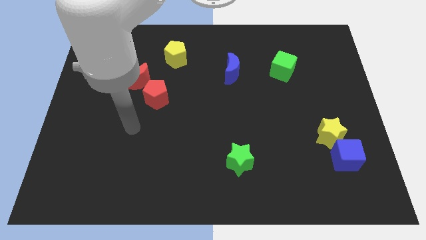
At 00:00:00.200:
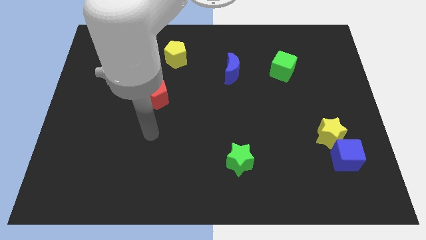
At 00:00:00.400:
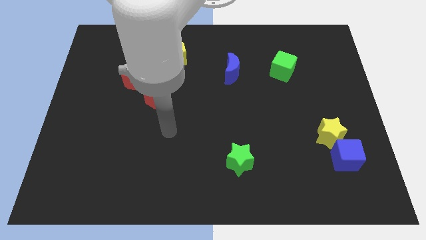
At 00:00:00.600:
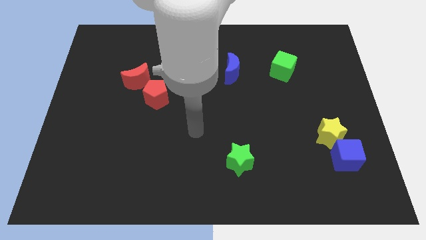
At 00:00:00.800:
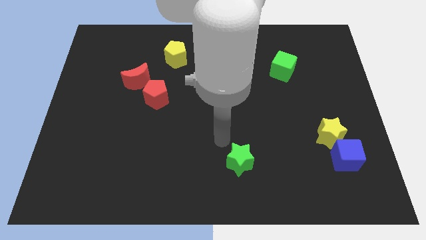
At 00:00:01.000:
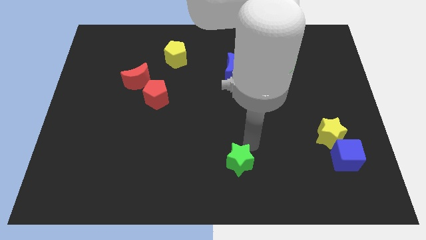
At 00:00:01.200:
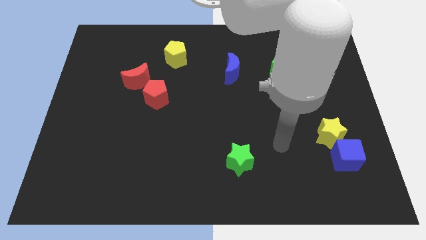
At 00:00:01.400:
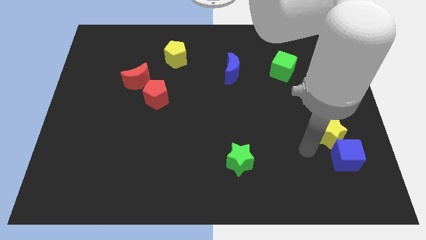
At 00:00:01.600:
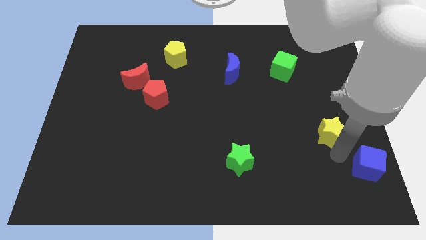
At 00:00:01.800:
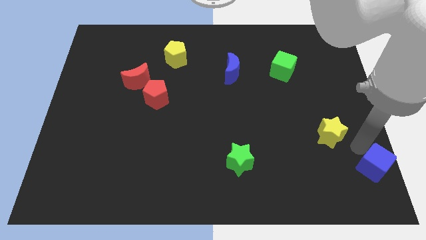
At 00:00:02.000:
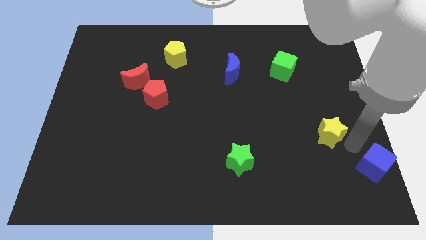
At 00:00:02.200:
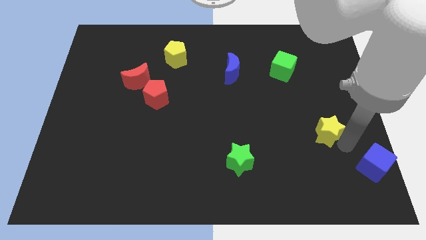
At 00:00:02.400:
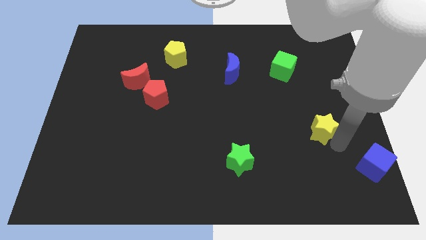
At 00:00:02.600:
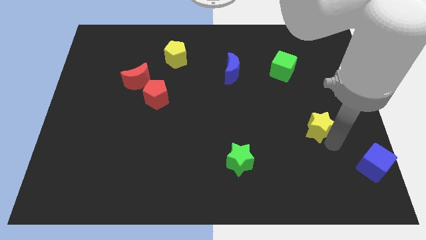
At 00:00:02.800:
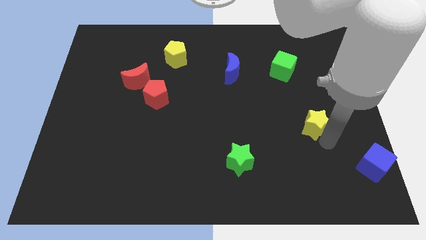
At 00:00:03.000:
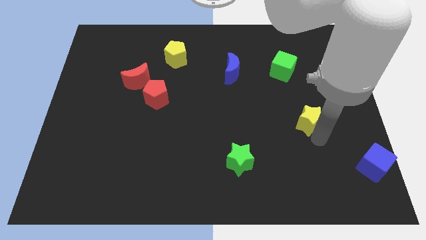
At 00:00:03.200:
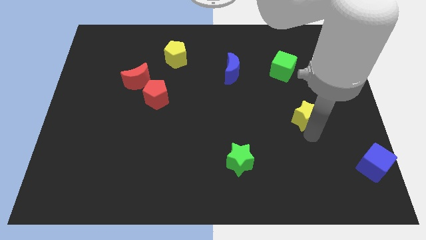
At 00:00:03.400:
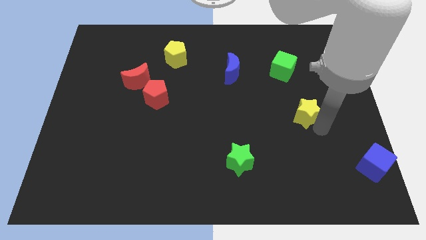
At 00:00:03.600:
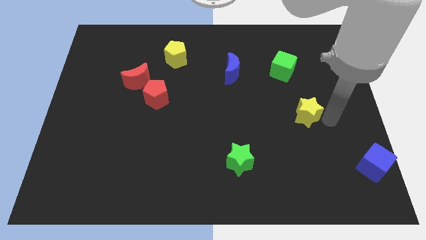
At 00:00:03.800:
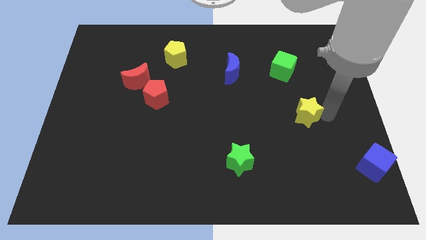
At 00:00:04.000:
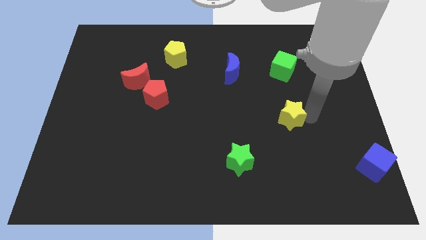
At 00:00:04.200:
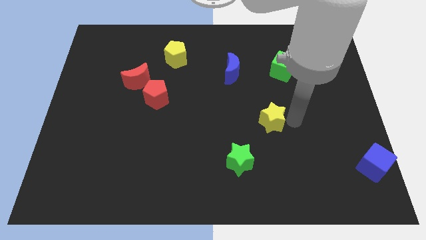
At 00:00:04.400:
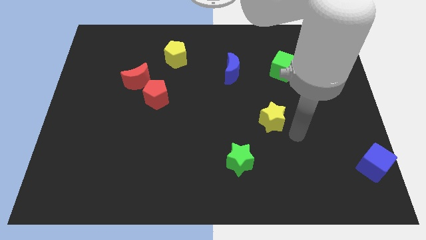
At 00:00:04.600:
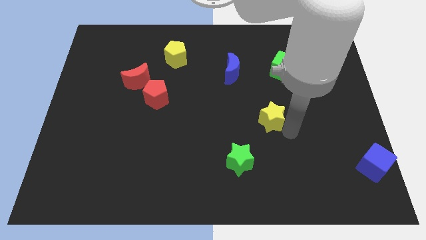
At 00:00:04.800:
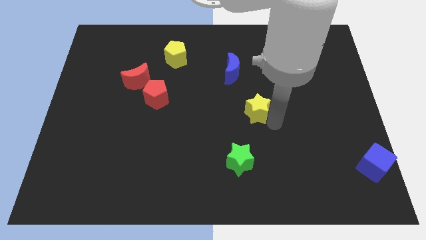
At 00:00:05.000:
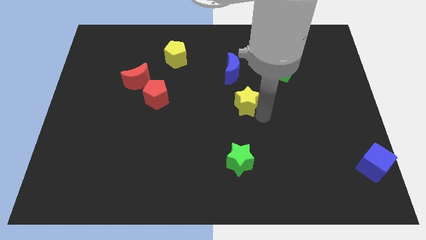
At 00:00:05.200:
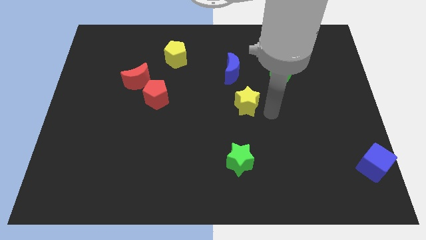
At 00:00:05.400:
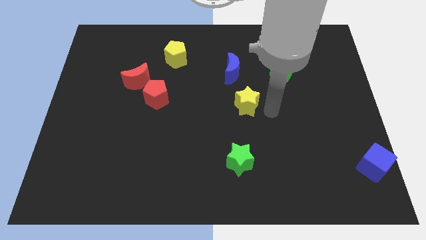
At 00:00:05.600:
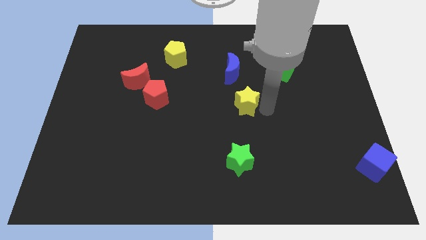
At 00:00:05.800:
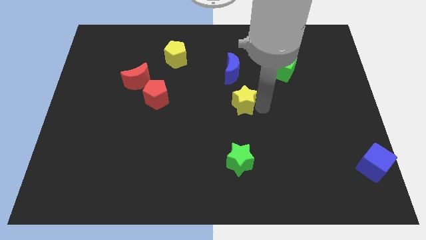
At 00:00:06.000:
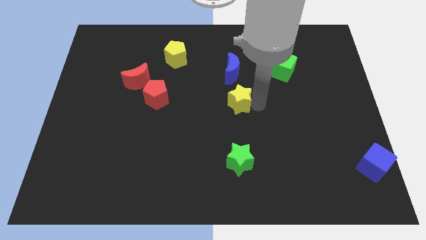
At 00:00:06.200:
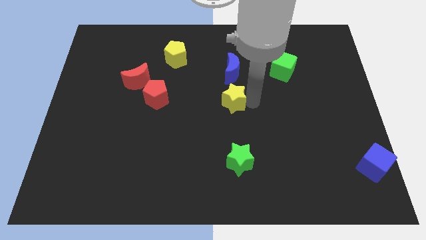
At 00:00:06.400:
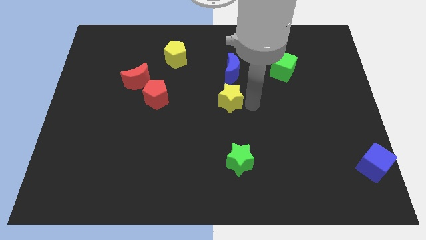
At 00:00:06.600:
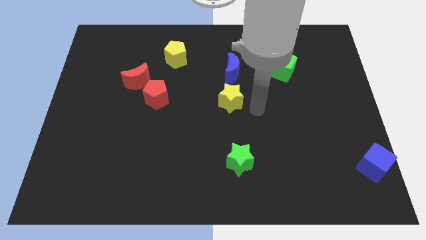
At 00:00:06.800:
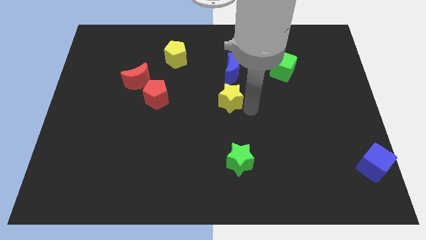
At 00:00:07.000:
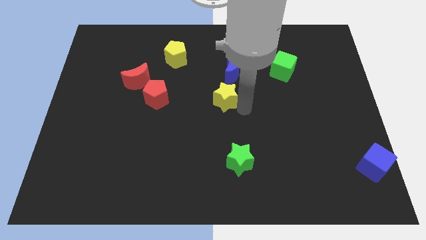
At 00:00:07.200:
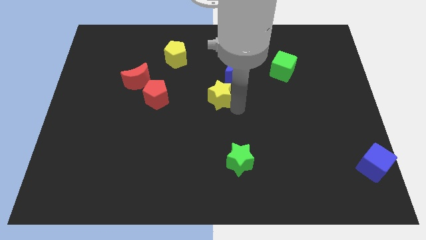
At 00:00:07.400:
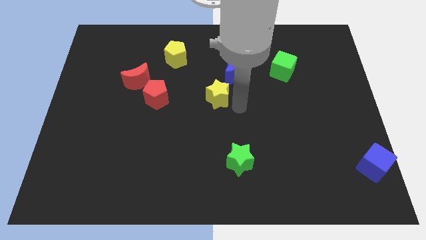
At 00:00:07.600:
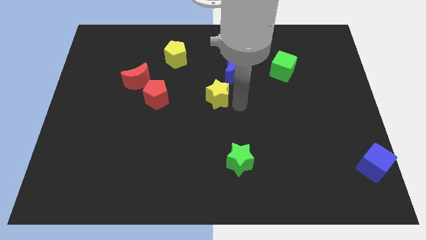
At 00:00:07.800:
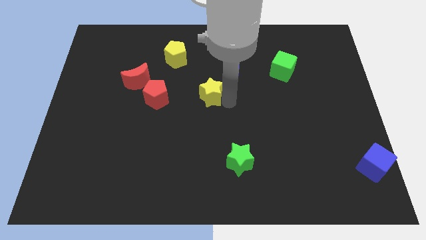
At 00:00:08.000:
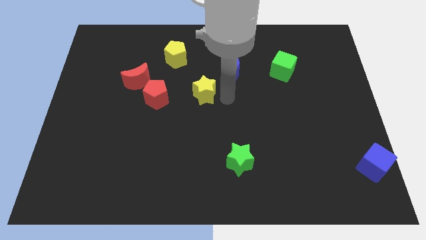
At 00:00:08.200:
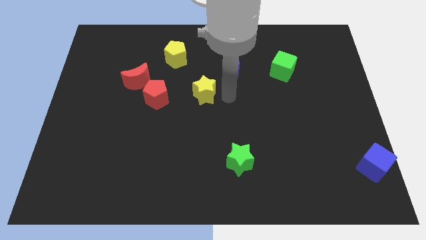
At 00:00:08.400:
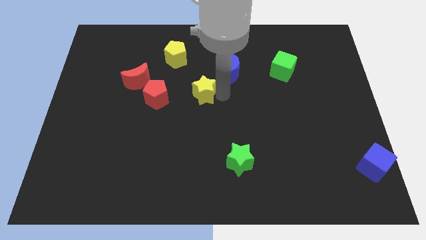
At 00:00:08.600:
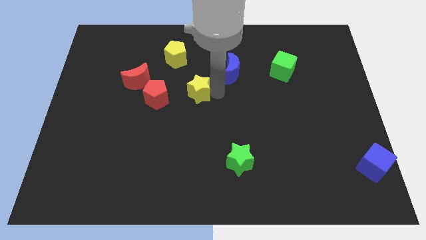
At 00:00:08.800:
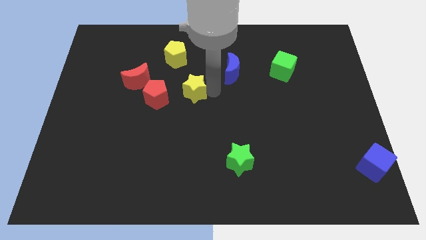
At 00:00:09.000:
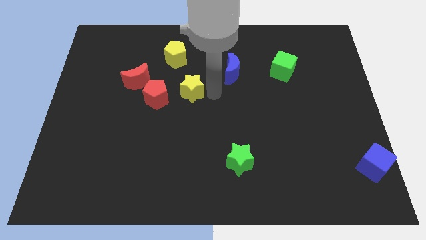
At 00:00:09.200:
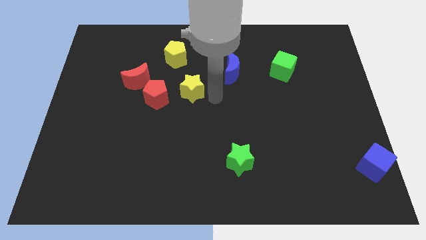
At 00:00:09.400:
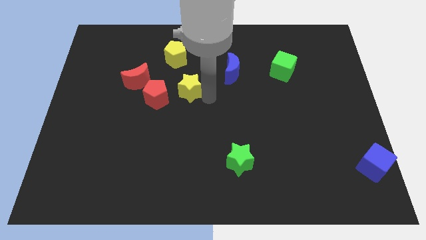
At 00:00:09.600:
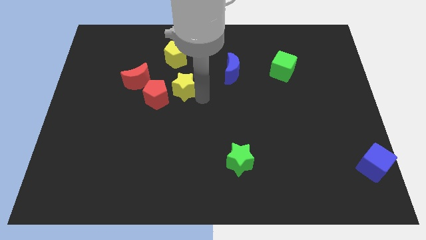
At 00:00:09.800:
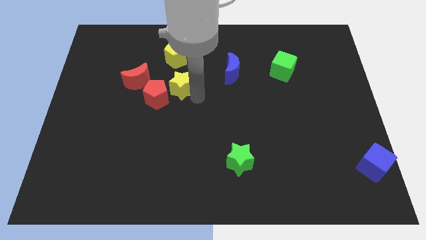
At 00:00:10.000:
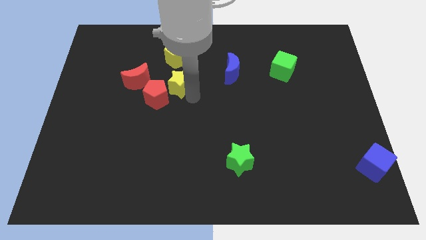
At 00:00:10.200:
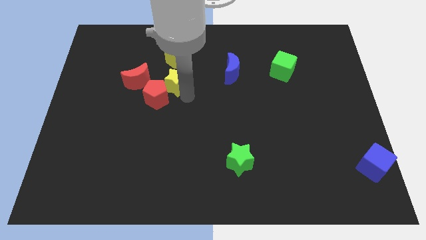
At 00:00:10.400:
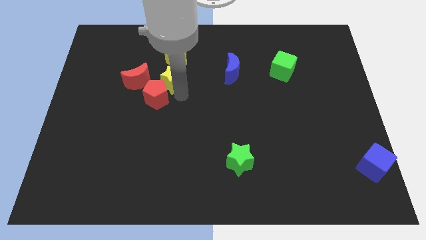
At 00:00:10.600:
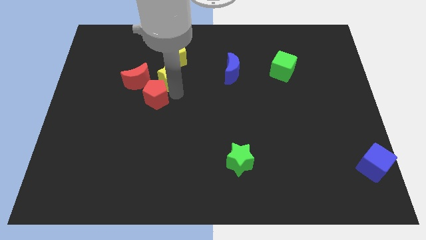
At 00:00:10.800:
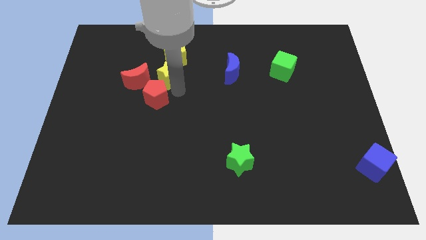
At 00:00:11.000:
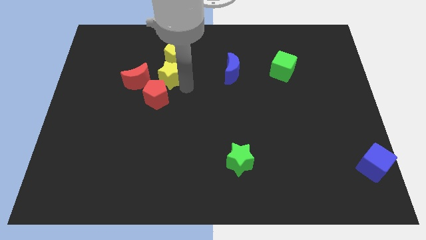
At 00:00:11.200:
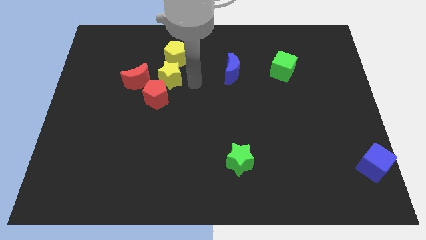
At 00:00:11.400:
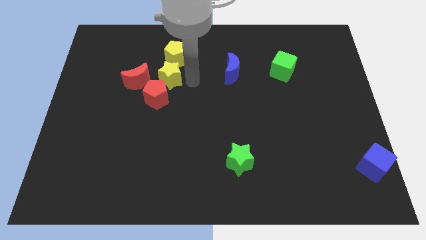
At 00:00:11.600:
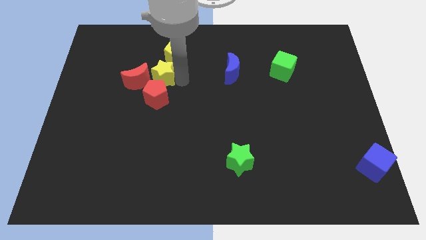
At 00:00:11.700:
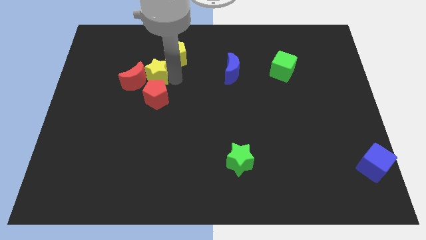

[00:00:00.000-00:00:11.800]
put the yellow star close to the red moon
